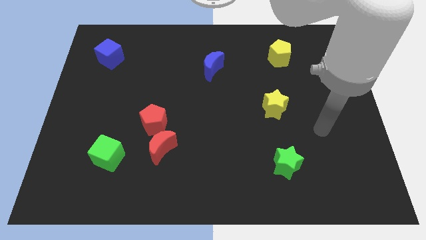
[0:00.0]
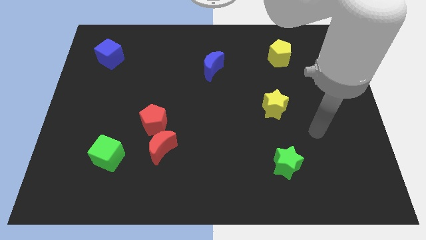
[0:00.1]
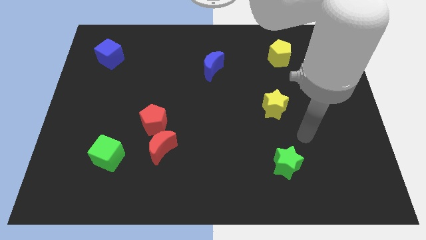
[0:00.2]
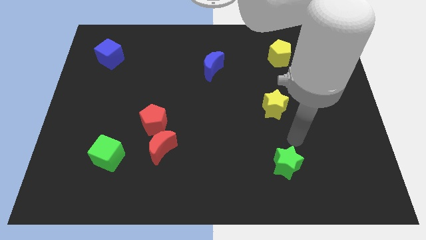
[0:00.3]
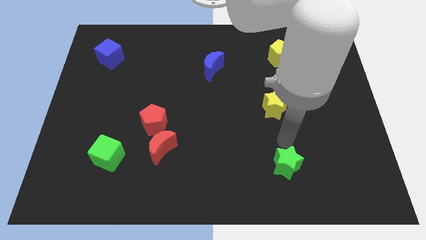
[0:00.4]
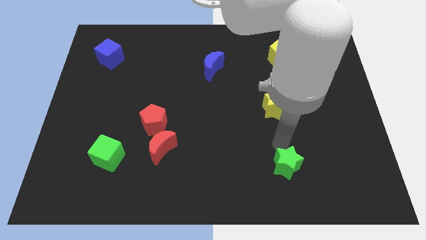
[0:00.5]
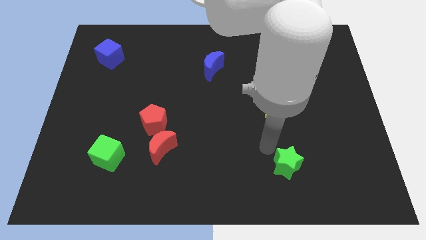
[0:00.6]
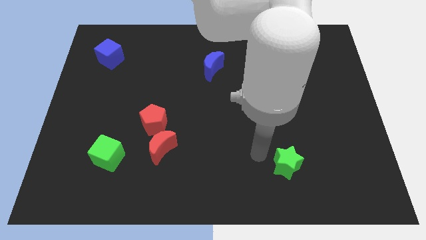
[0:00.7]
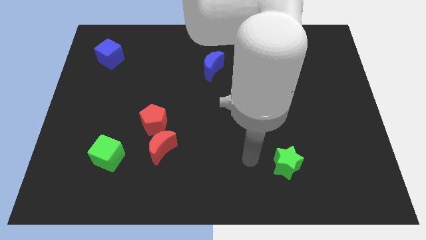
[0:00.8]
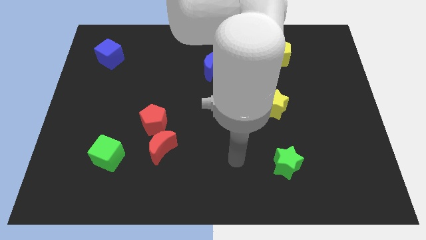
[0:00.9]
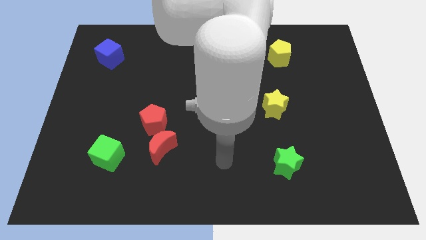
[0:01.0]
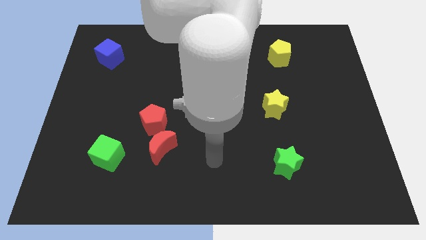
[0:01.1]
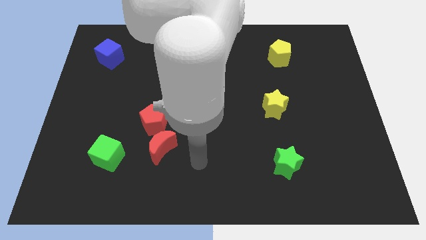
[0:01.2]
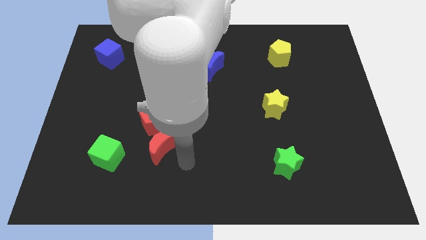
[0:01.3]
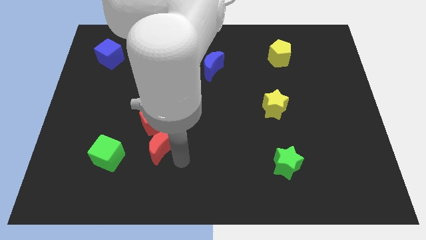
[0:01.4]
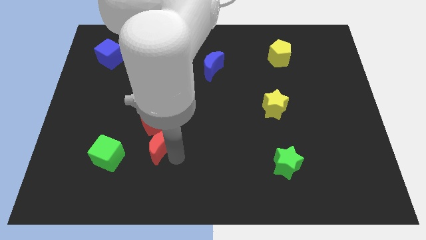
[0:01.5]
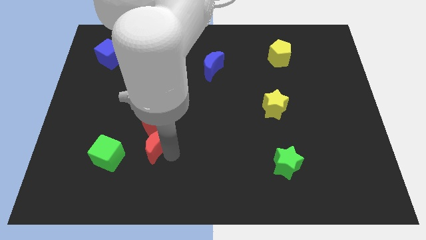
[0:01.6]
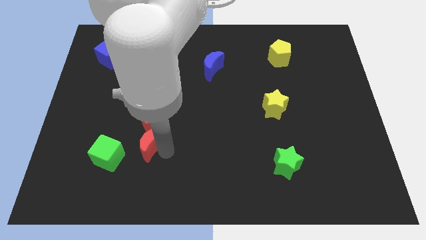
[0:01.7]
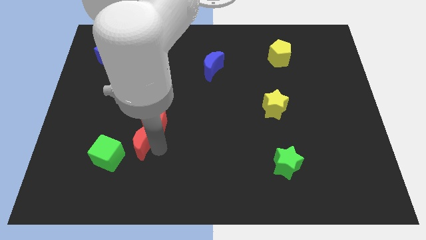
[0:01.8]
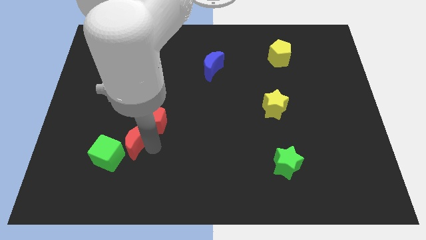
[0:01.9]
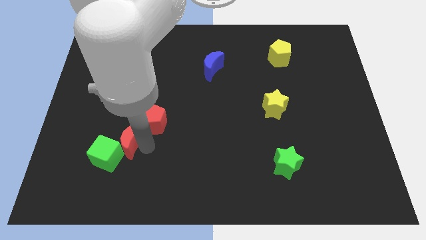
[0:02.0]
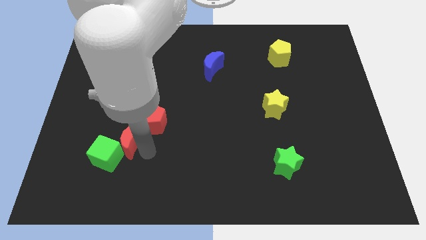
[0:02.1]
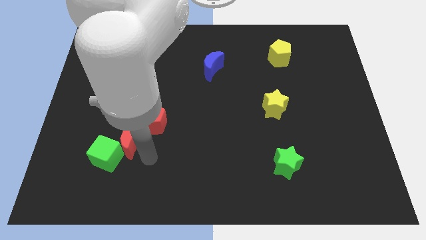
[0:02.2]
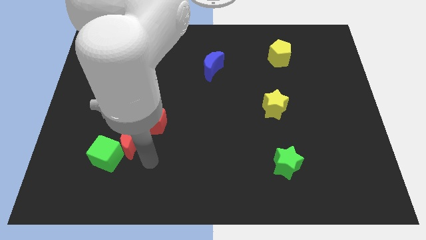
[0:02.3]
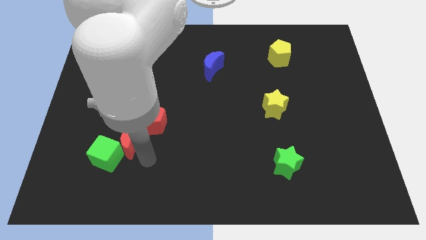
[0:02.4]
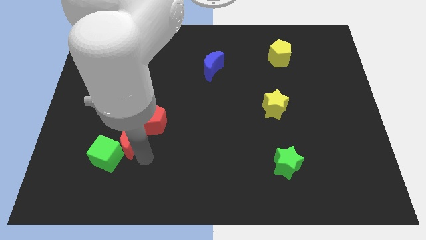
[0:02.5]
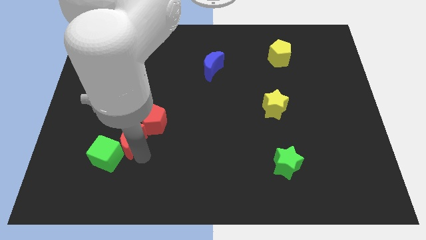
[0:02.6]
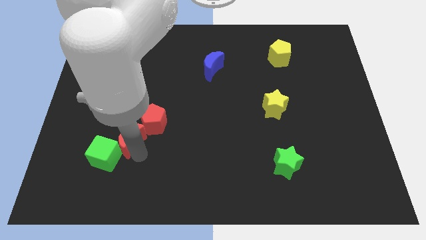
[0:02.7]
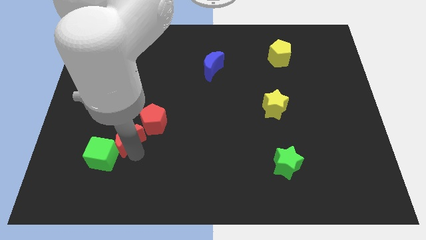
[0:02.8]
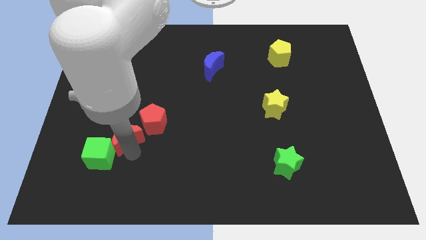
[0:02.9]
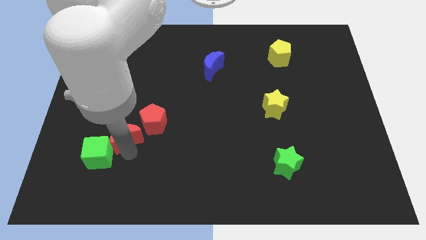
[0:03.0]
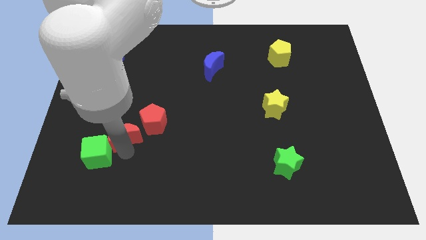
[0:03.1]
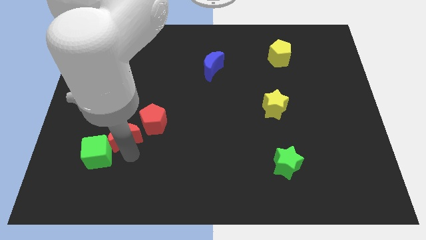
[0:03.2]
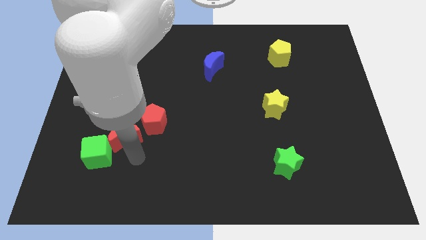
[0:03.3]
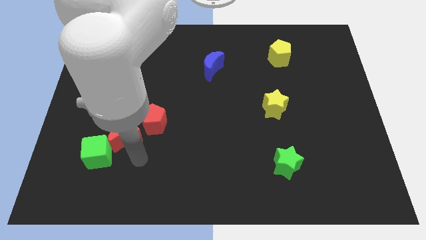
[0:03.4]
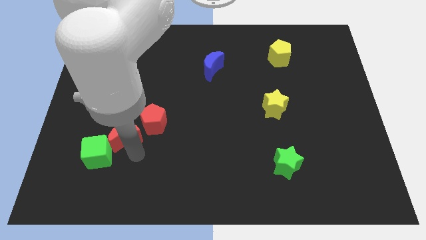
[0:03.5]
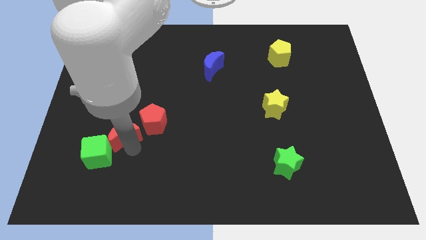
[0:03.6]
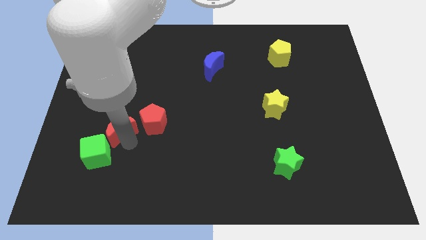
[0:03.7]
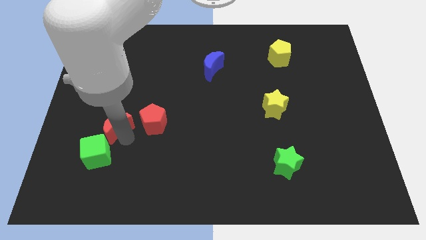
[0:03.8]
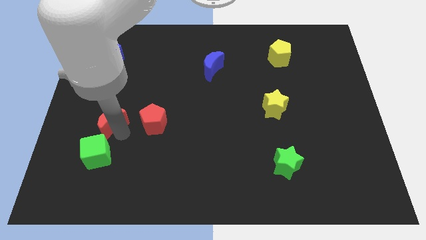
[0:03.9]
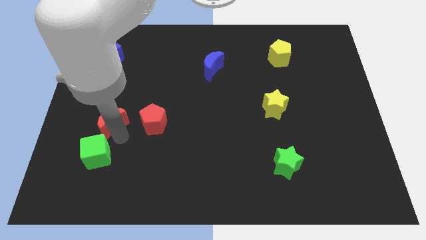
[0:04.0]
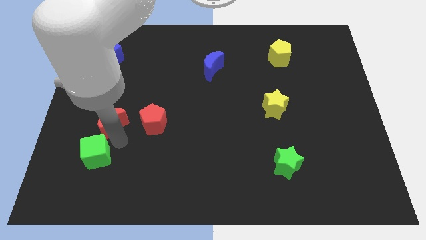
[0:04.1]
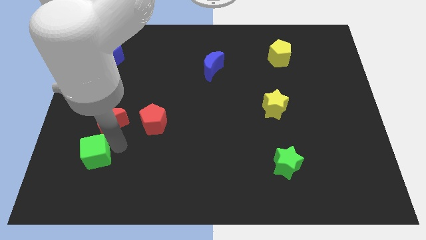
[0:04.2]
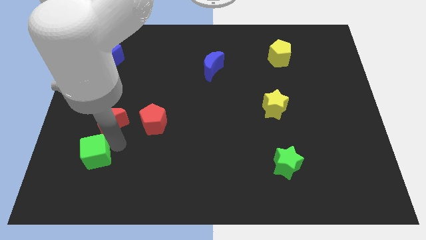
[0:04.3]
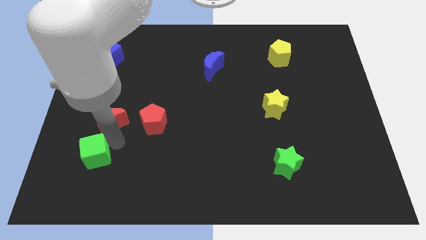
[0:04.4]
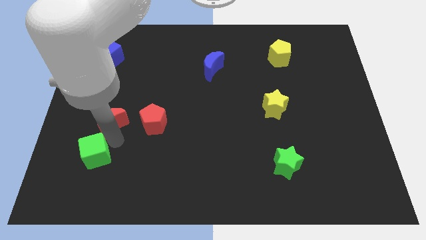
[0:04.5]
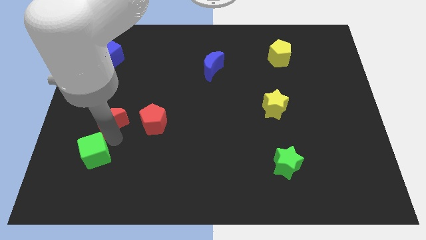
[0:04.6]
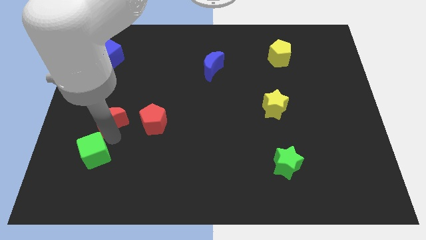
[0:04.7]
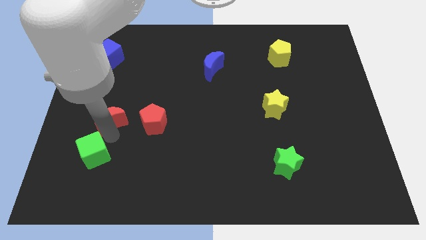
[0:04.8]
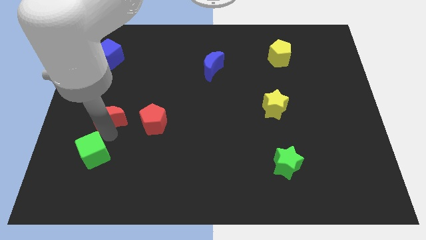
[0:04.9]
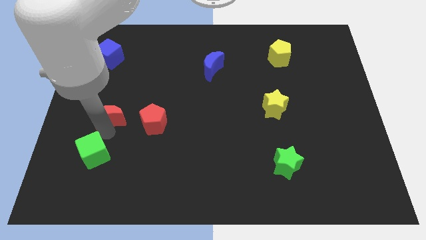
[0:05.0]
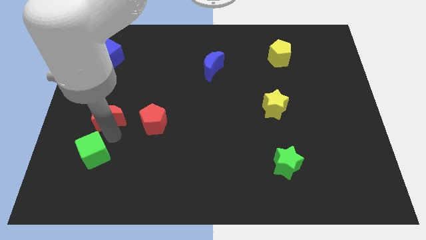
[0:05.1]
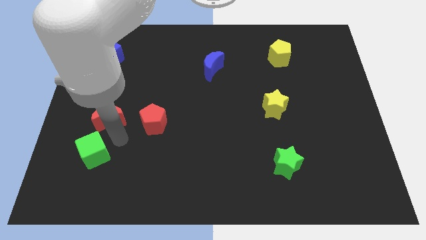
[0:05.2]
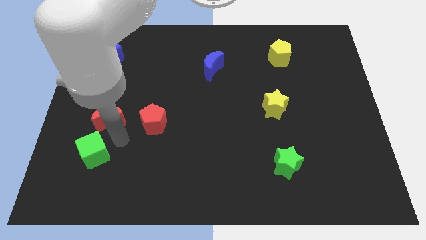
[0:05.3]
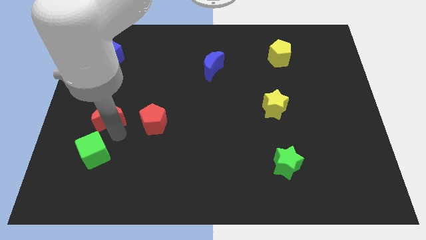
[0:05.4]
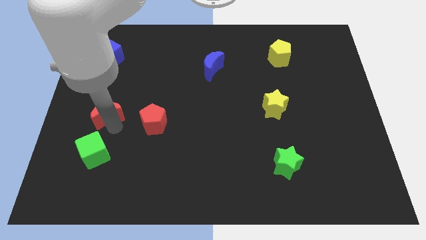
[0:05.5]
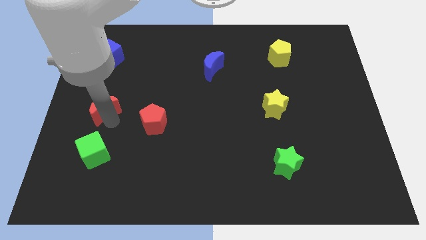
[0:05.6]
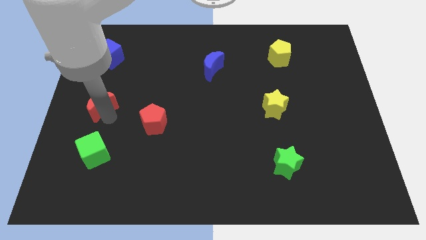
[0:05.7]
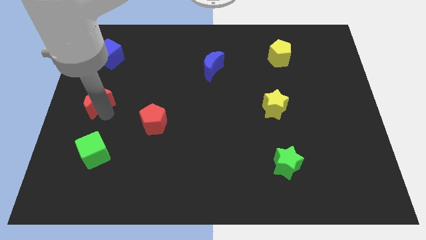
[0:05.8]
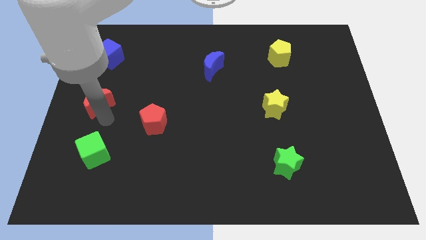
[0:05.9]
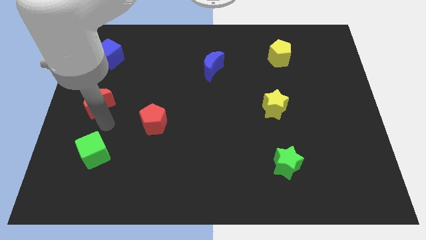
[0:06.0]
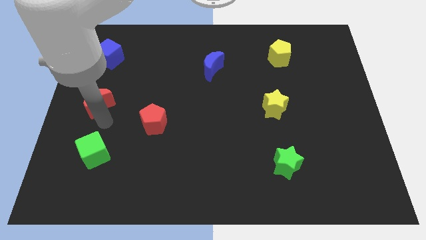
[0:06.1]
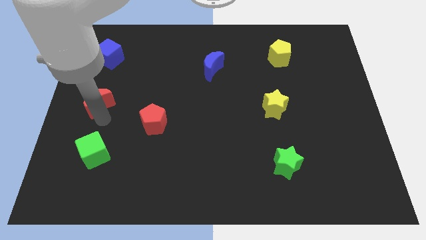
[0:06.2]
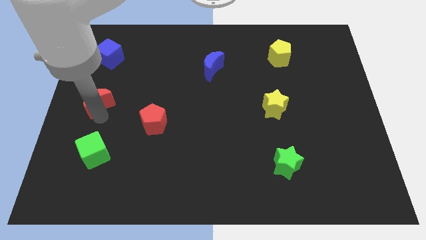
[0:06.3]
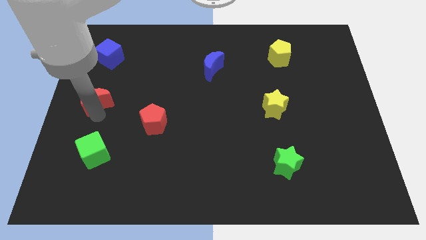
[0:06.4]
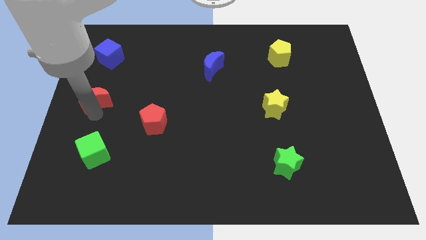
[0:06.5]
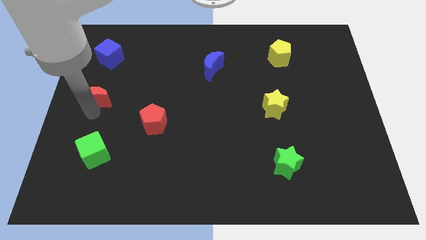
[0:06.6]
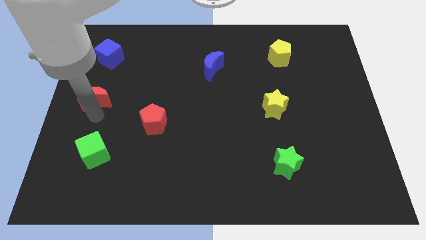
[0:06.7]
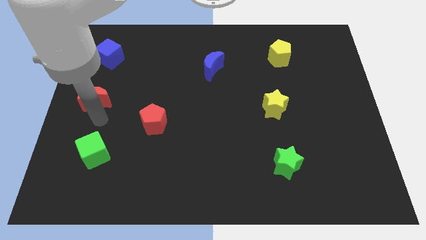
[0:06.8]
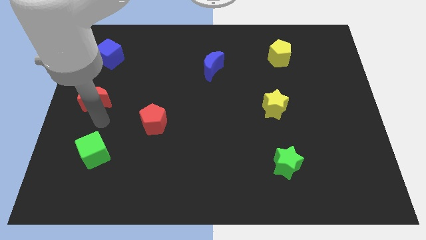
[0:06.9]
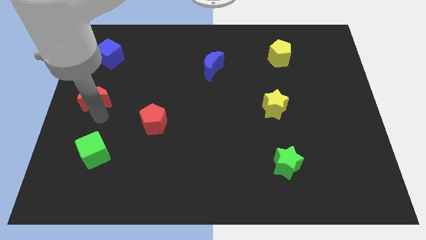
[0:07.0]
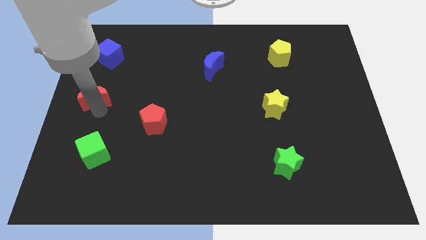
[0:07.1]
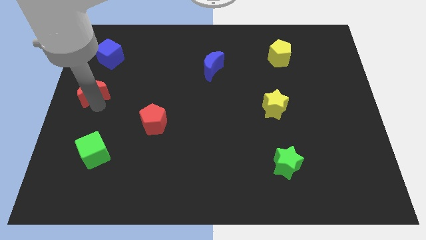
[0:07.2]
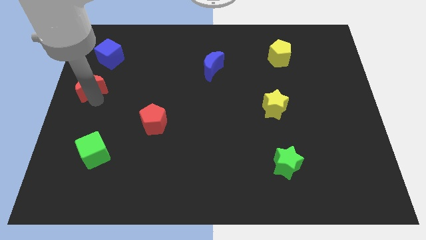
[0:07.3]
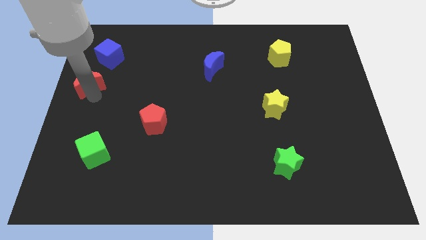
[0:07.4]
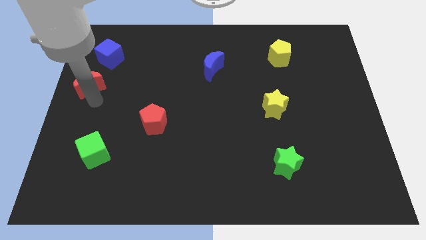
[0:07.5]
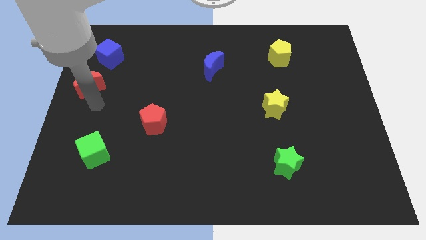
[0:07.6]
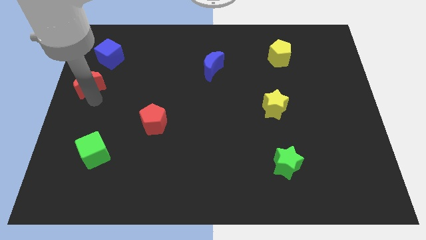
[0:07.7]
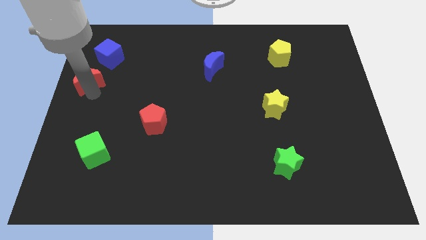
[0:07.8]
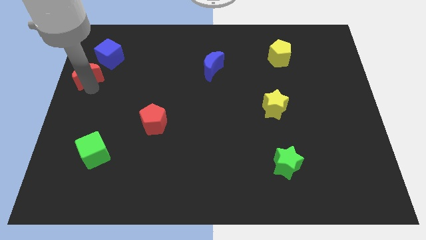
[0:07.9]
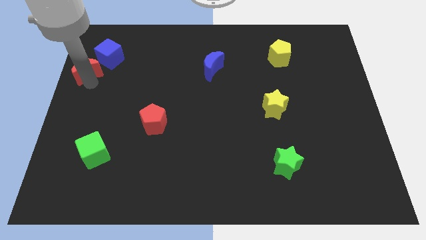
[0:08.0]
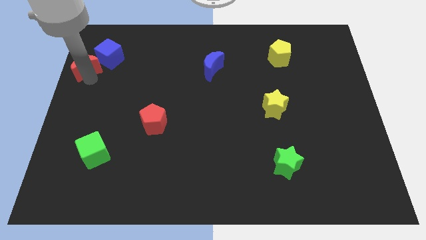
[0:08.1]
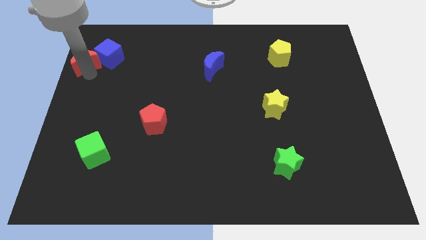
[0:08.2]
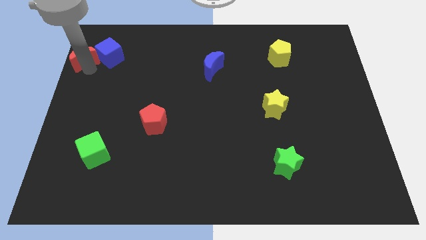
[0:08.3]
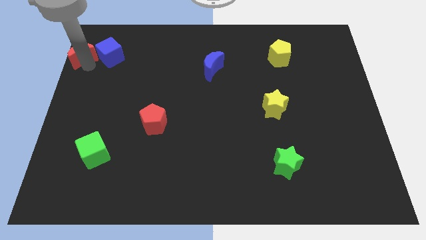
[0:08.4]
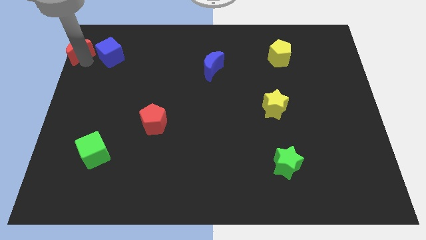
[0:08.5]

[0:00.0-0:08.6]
move the red moon to the upper left corner
